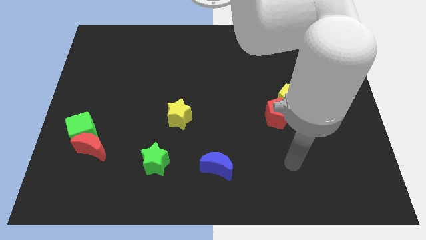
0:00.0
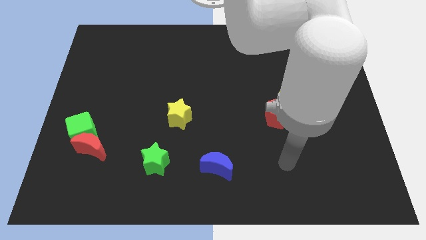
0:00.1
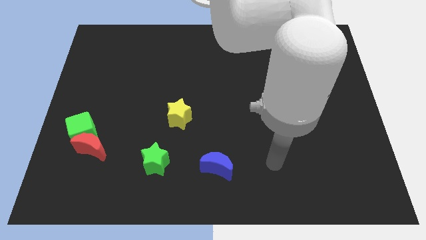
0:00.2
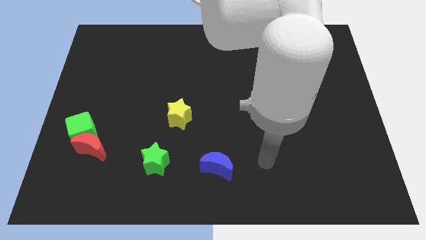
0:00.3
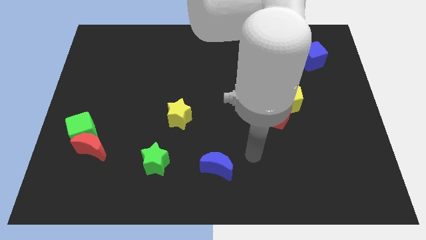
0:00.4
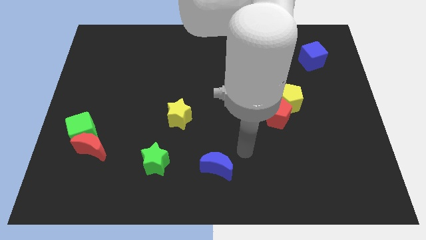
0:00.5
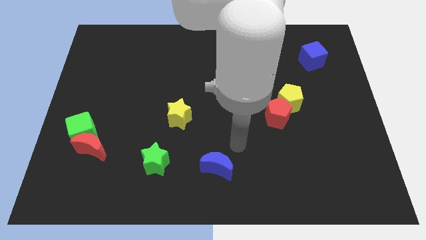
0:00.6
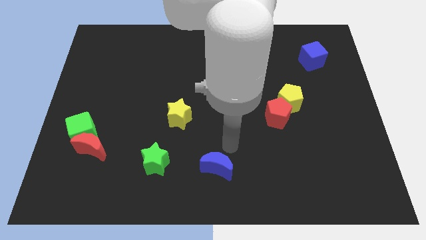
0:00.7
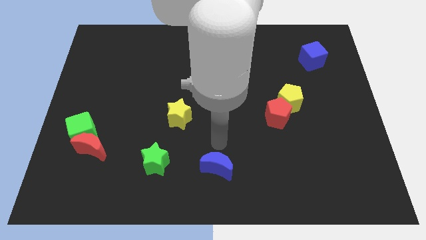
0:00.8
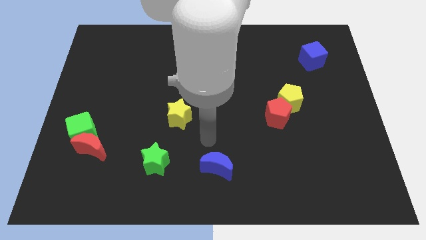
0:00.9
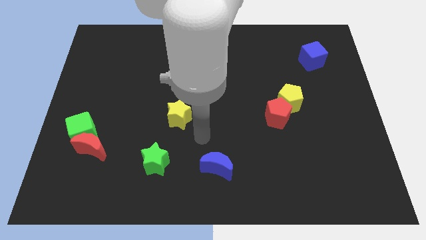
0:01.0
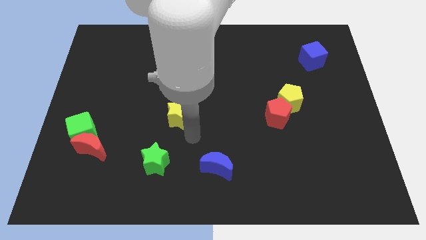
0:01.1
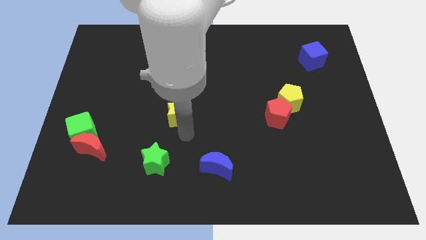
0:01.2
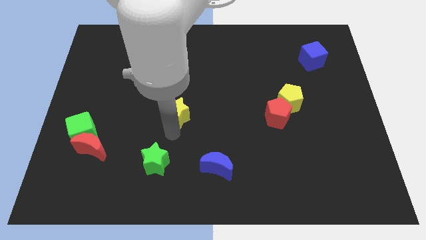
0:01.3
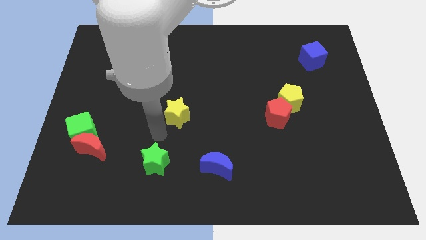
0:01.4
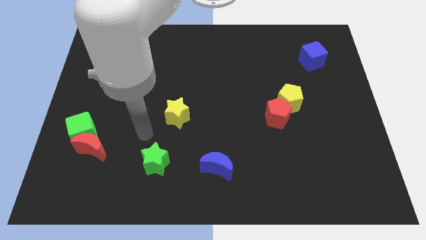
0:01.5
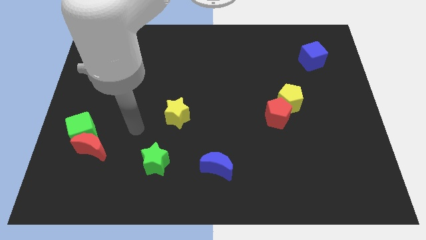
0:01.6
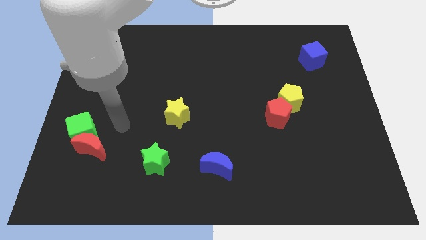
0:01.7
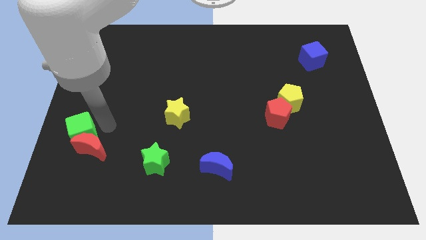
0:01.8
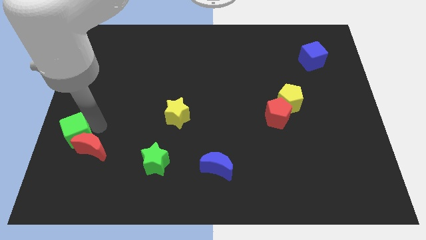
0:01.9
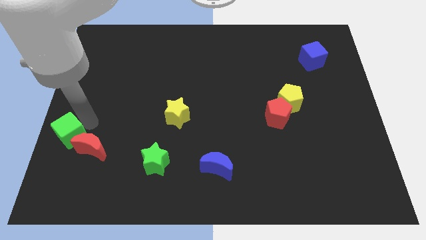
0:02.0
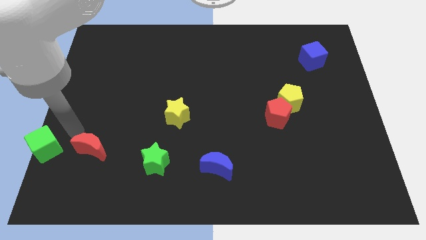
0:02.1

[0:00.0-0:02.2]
separate the red moon from the green cube

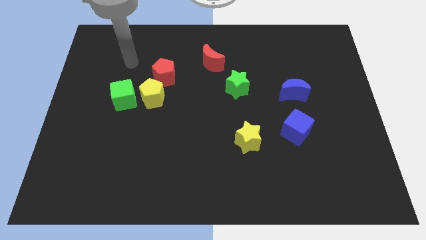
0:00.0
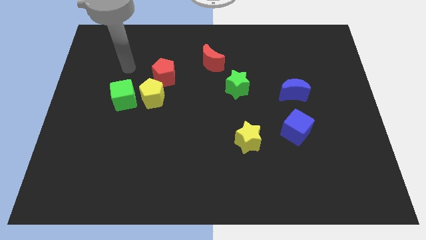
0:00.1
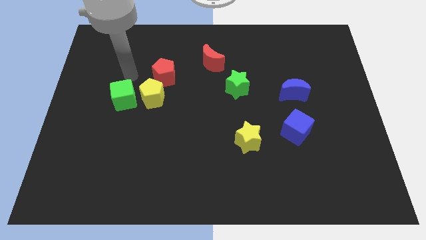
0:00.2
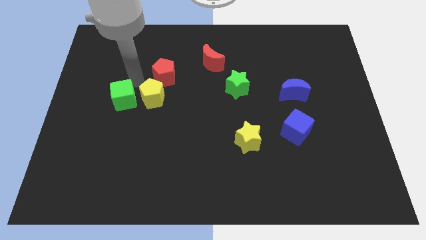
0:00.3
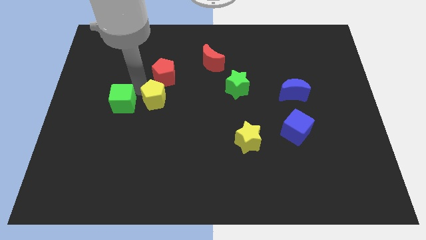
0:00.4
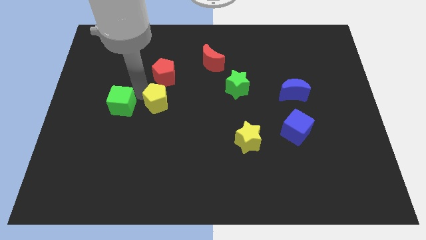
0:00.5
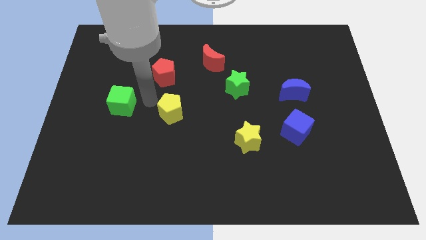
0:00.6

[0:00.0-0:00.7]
pull the green cube apart from the yellow pentagon

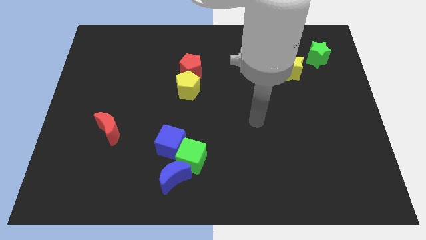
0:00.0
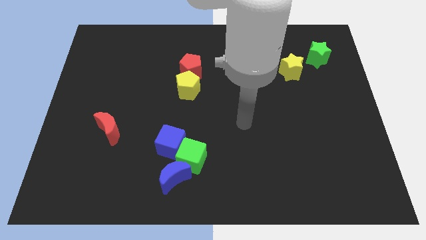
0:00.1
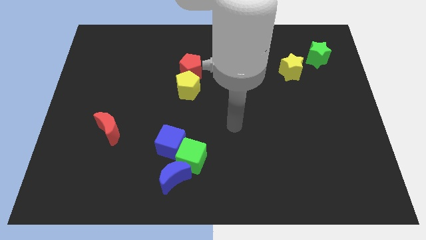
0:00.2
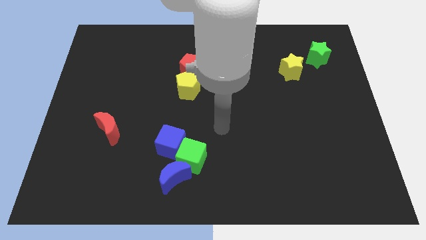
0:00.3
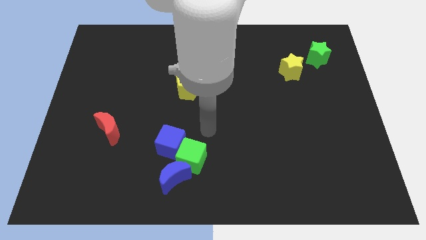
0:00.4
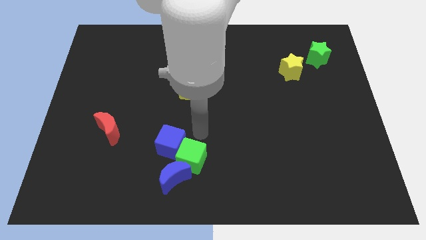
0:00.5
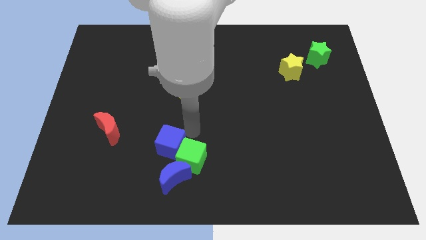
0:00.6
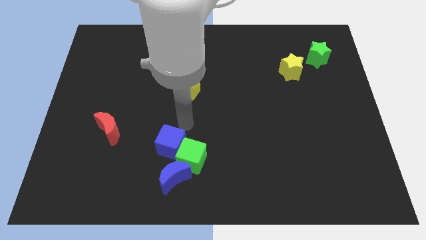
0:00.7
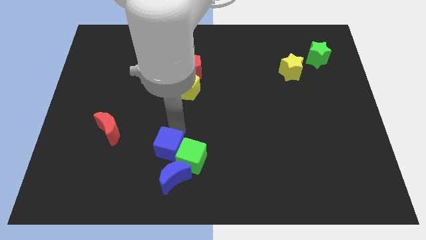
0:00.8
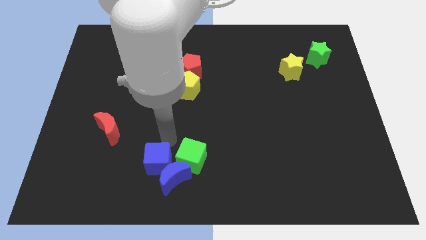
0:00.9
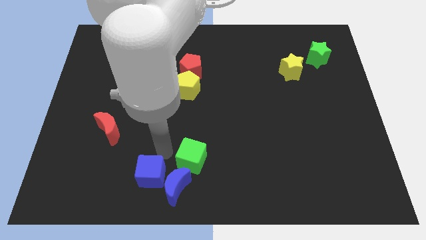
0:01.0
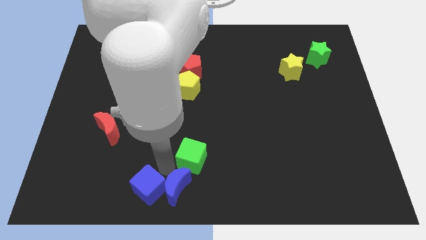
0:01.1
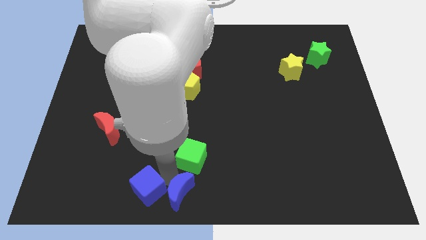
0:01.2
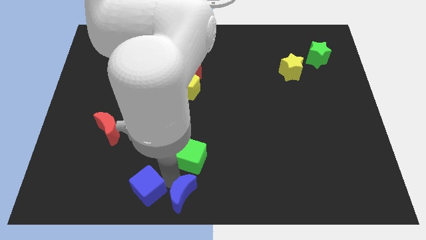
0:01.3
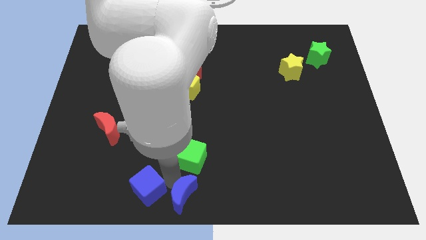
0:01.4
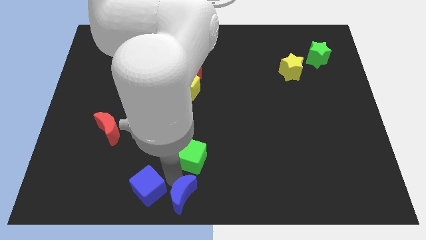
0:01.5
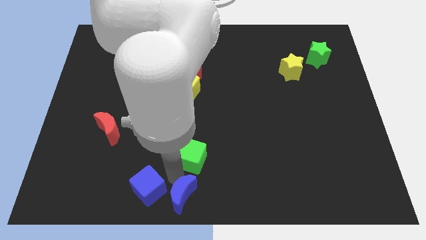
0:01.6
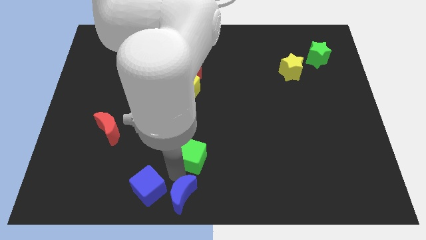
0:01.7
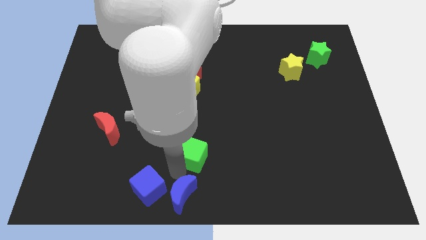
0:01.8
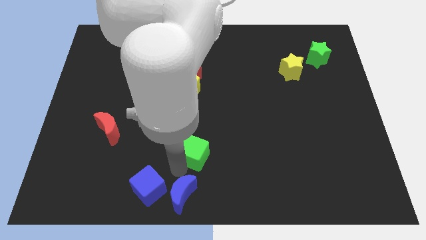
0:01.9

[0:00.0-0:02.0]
move the green cube away from the blue cube and blue moon

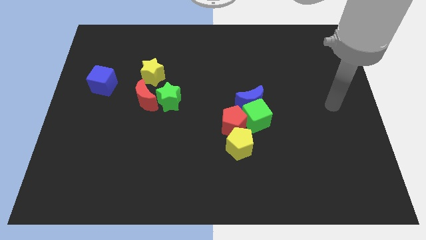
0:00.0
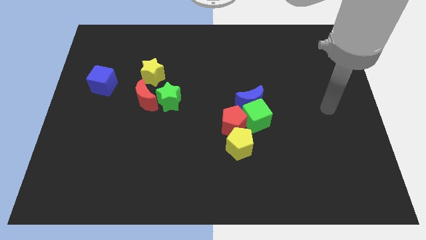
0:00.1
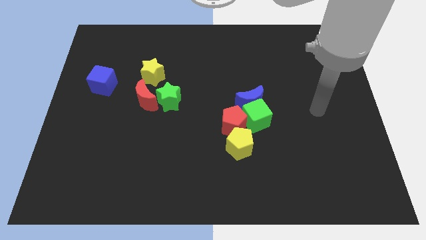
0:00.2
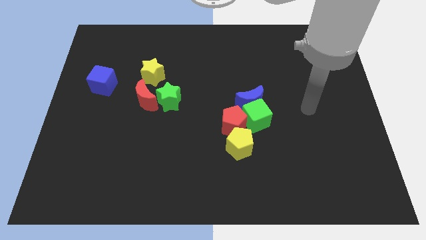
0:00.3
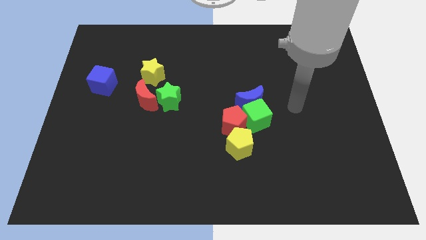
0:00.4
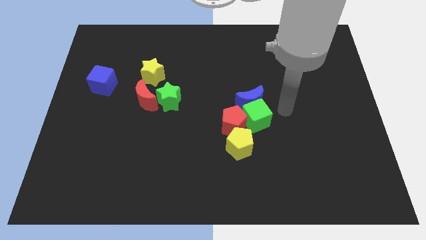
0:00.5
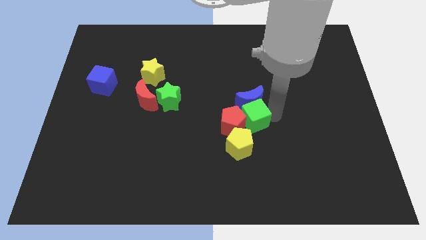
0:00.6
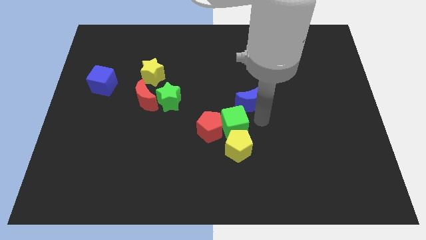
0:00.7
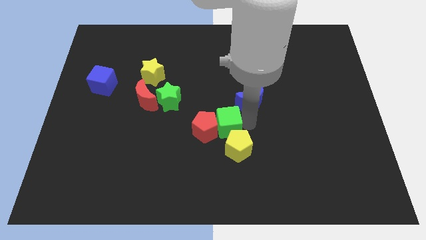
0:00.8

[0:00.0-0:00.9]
pull the blue moon apart from the green cube and red pentagon

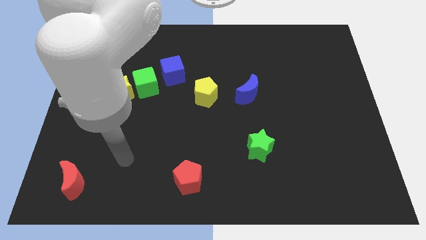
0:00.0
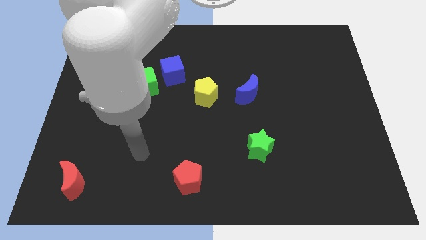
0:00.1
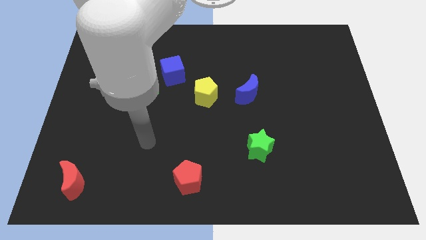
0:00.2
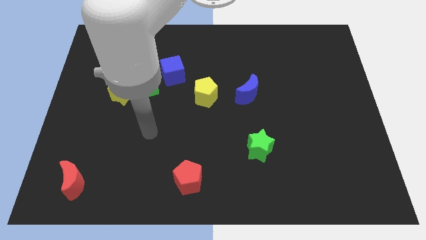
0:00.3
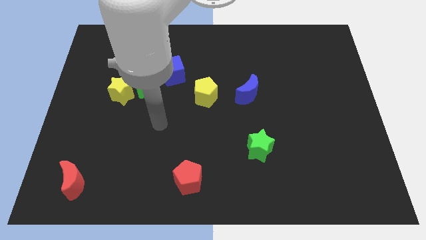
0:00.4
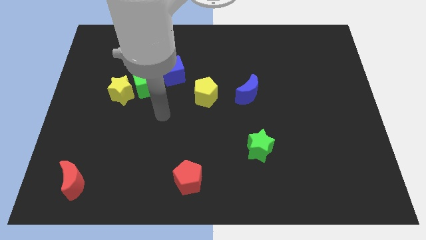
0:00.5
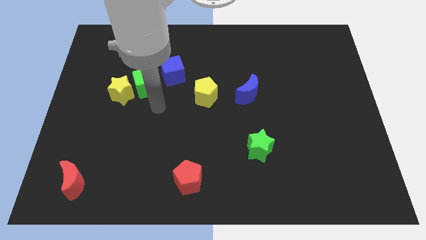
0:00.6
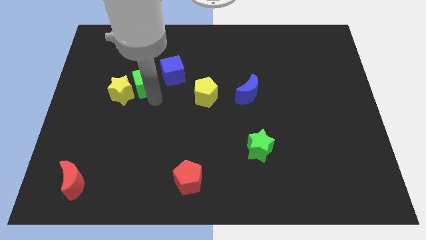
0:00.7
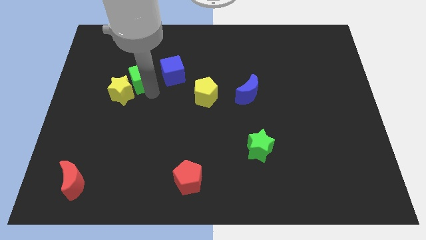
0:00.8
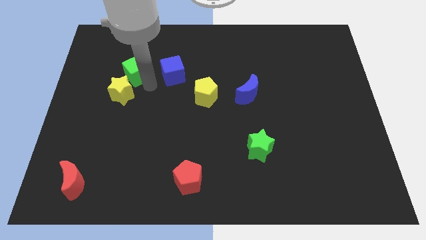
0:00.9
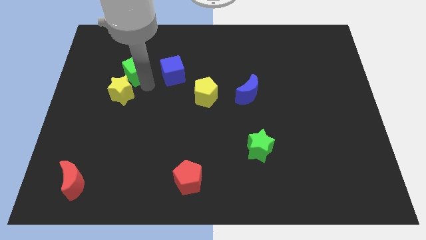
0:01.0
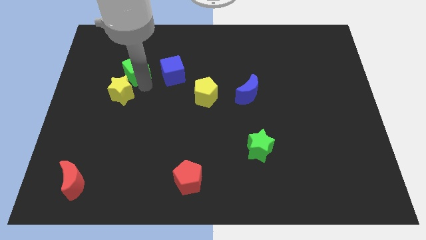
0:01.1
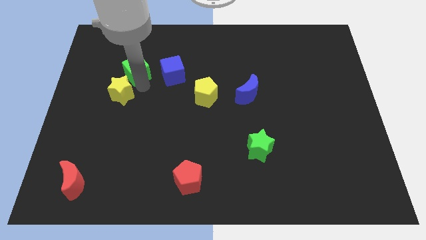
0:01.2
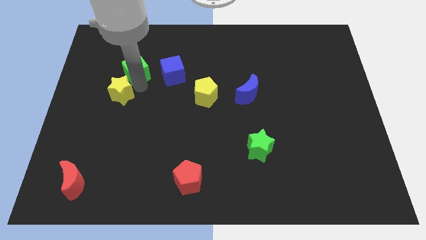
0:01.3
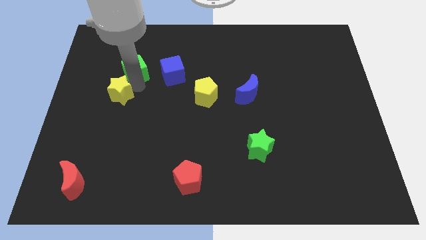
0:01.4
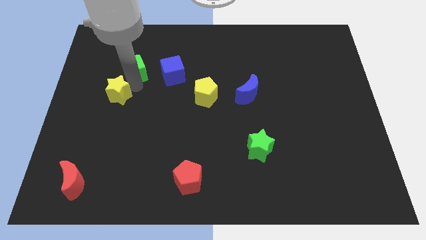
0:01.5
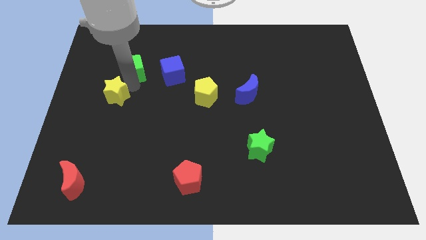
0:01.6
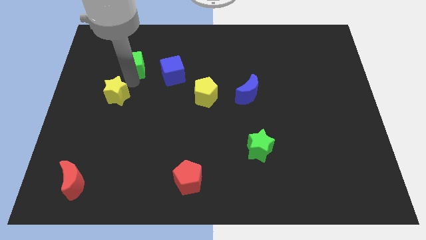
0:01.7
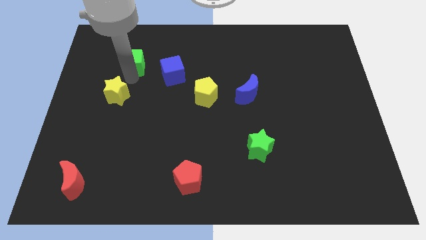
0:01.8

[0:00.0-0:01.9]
move the yellow star away from the green cube

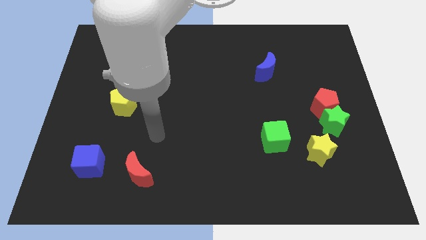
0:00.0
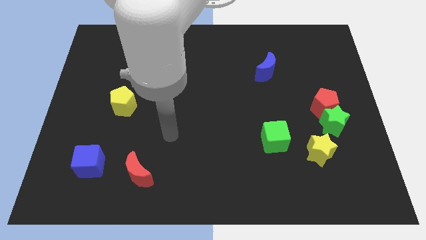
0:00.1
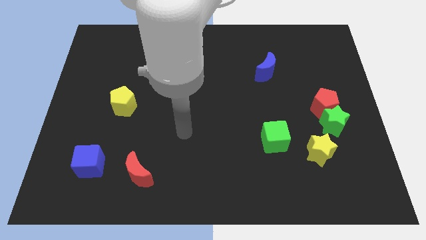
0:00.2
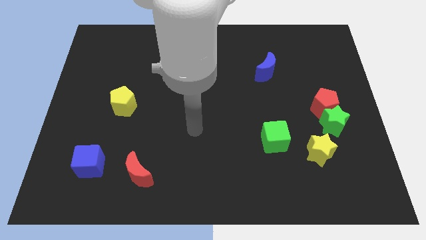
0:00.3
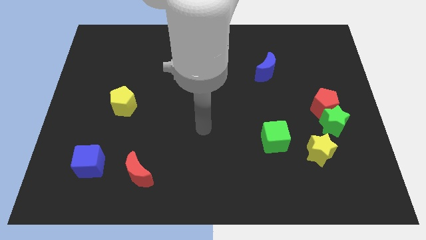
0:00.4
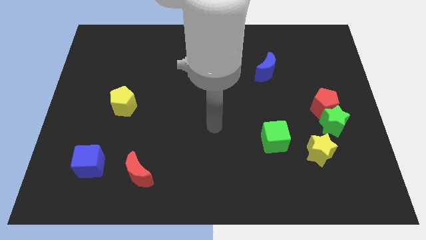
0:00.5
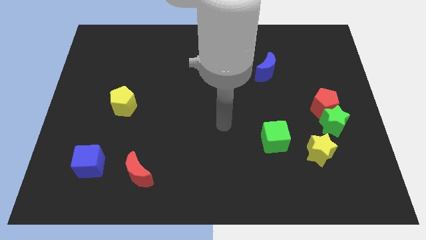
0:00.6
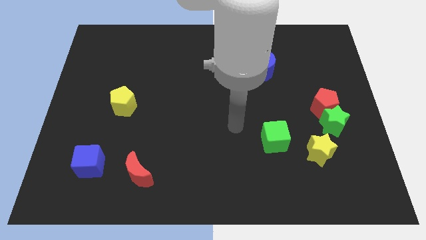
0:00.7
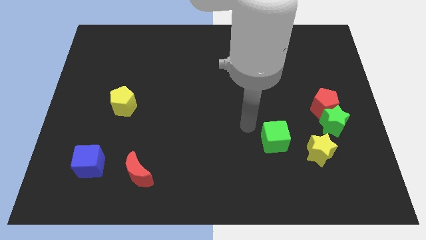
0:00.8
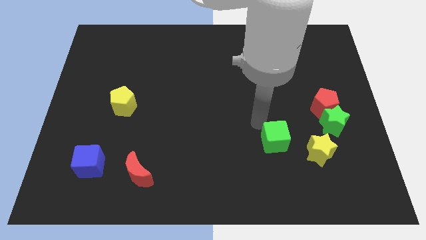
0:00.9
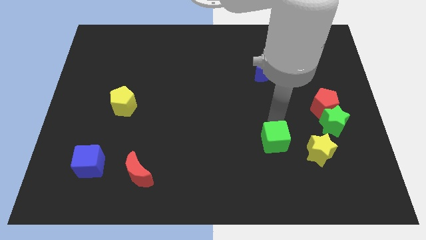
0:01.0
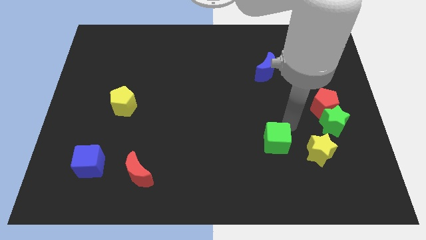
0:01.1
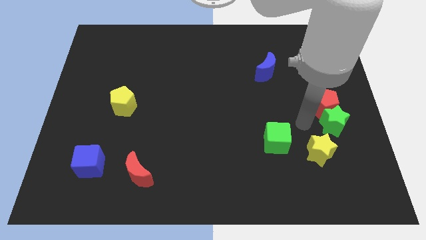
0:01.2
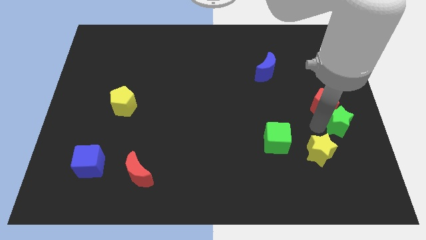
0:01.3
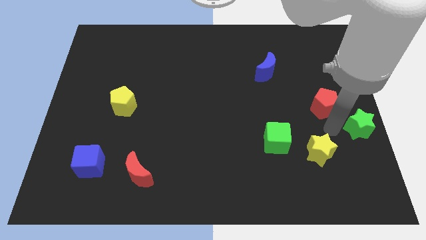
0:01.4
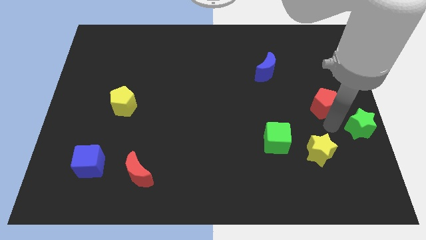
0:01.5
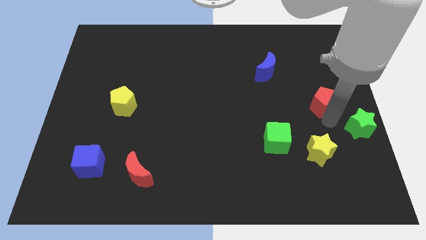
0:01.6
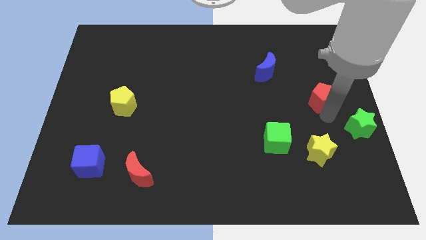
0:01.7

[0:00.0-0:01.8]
pull the red pentagon apart from the green star
